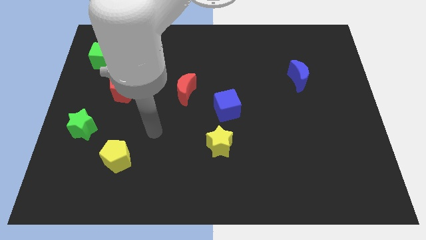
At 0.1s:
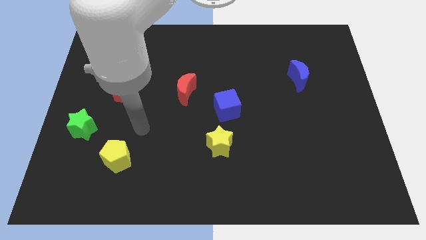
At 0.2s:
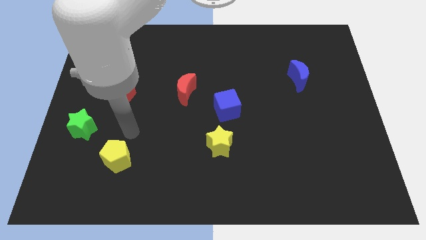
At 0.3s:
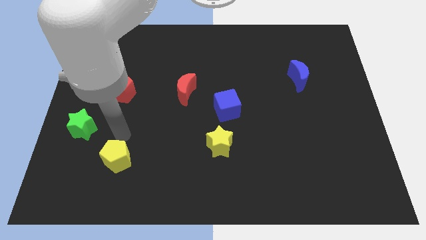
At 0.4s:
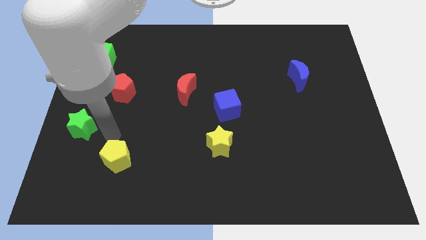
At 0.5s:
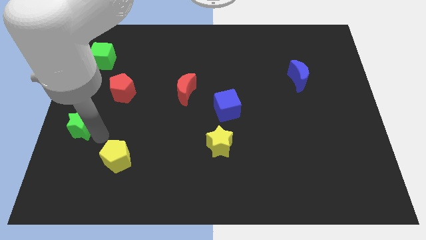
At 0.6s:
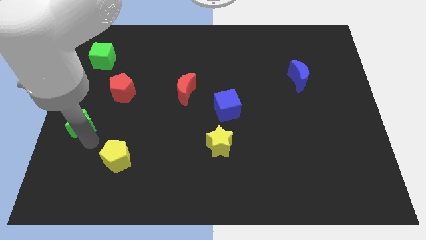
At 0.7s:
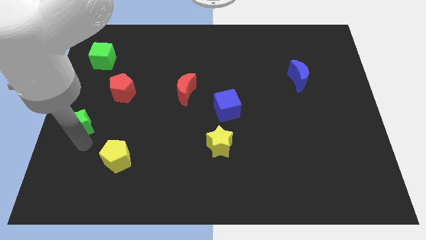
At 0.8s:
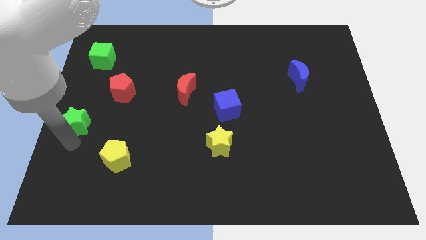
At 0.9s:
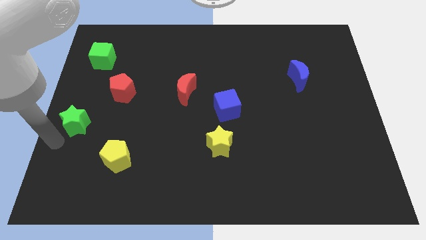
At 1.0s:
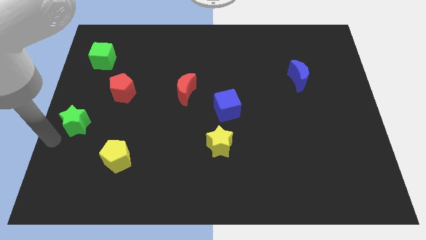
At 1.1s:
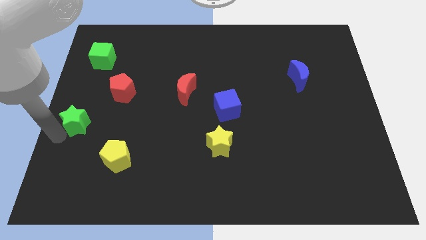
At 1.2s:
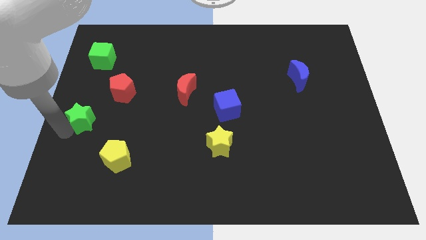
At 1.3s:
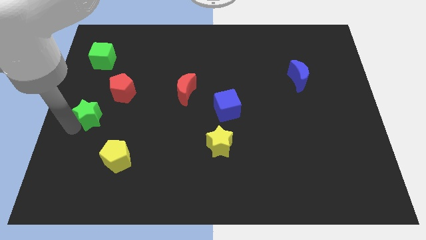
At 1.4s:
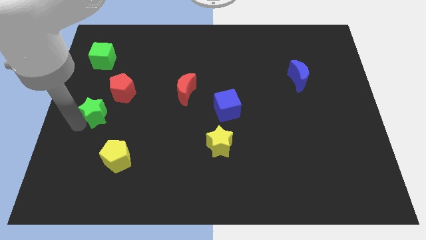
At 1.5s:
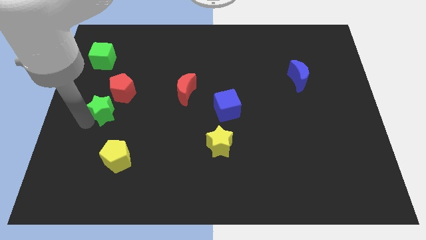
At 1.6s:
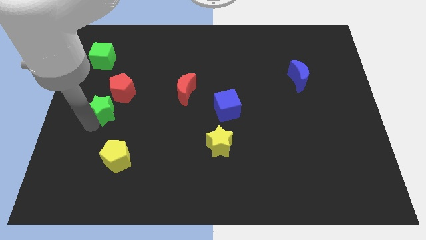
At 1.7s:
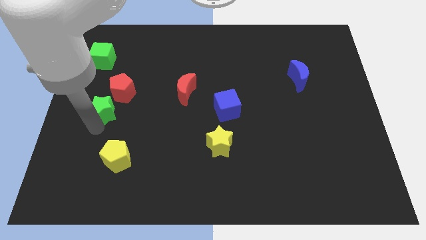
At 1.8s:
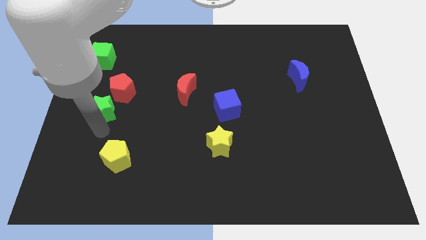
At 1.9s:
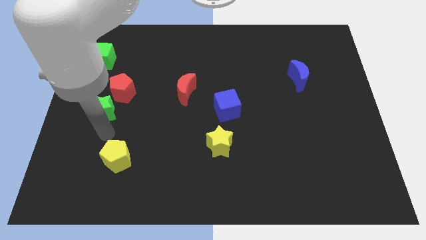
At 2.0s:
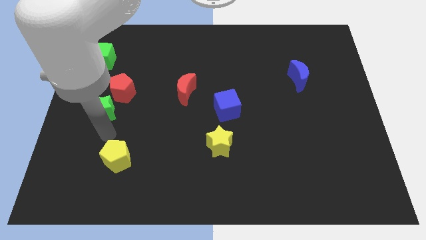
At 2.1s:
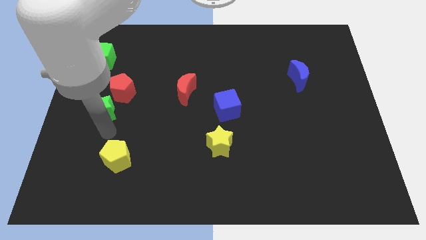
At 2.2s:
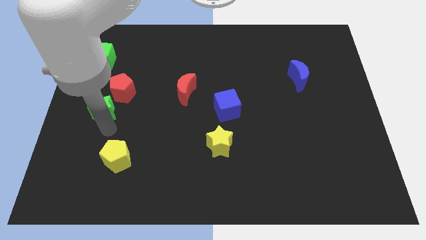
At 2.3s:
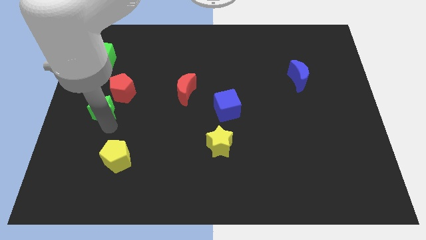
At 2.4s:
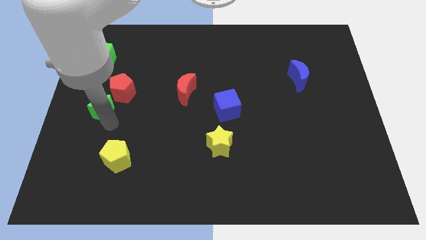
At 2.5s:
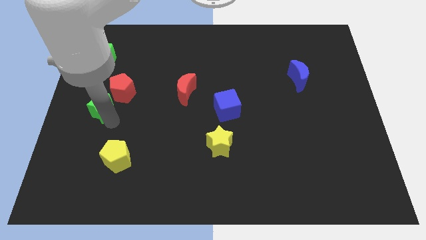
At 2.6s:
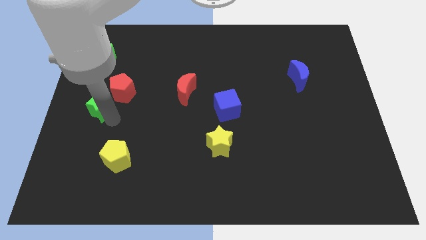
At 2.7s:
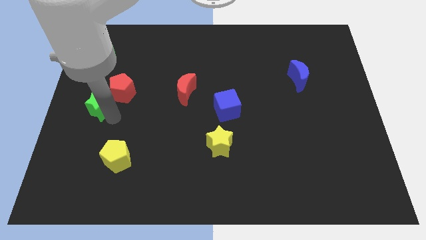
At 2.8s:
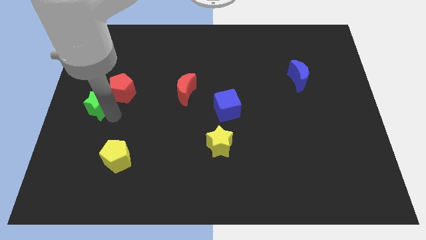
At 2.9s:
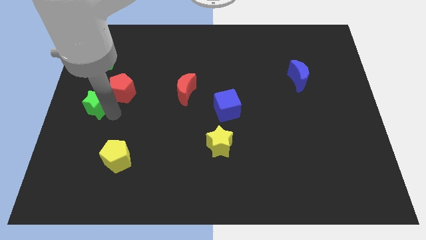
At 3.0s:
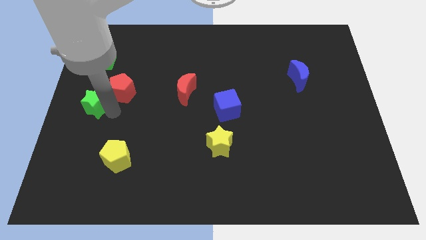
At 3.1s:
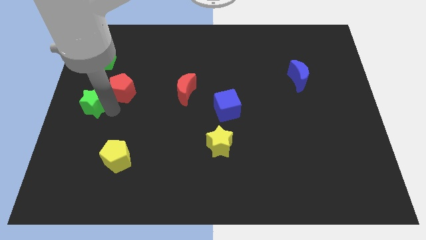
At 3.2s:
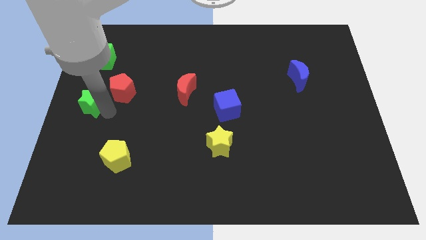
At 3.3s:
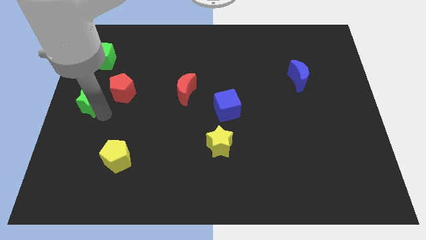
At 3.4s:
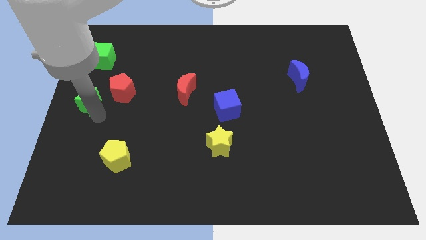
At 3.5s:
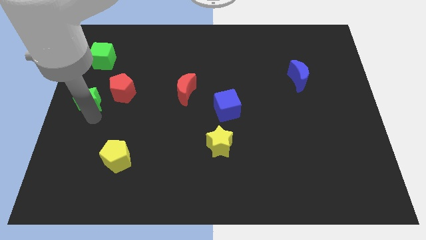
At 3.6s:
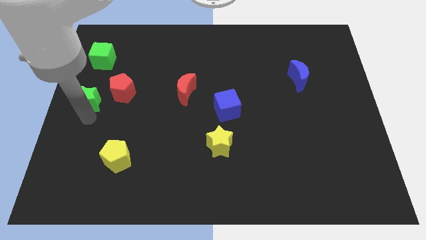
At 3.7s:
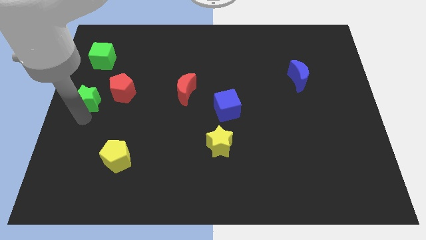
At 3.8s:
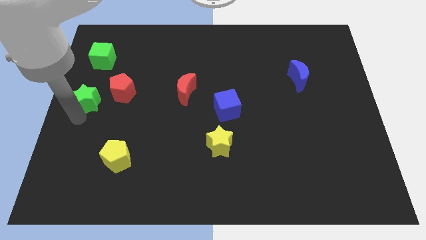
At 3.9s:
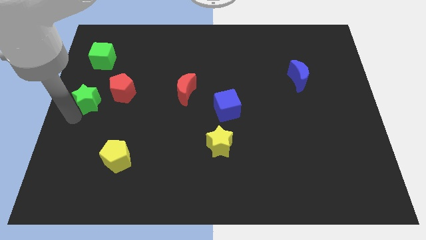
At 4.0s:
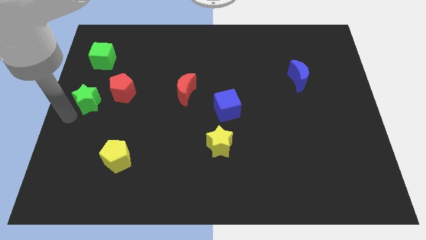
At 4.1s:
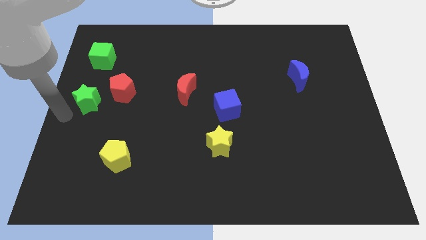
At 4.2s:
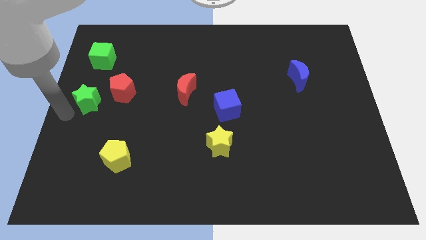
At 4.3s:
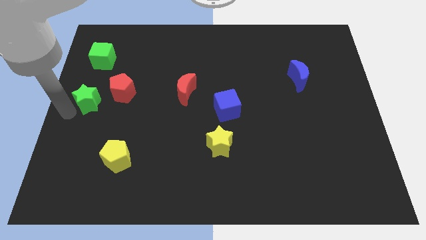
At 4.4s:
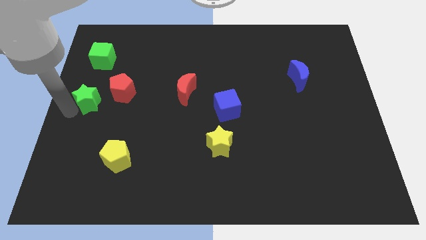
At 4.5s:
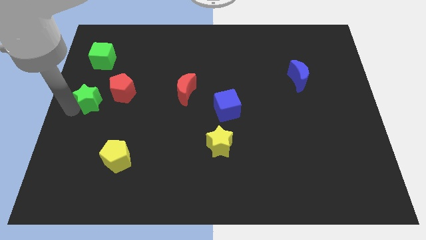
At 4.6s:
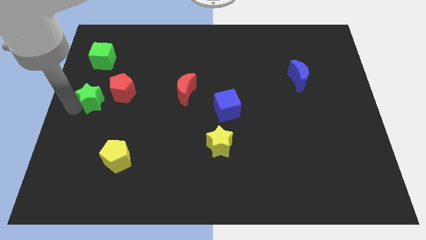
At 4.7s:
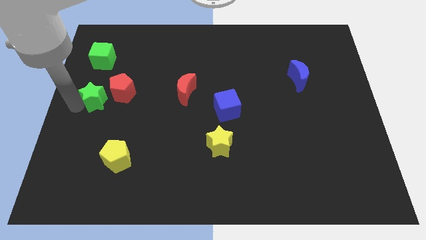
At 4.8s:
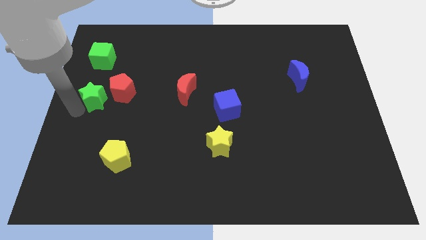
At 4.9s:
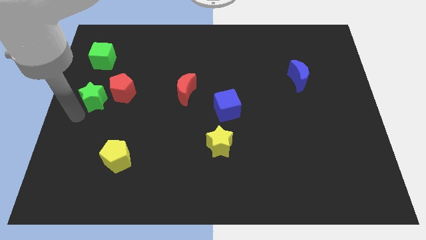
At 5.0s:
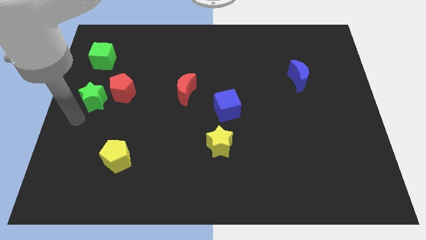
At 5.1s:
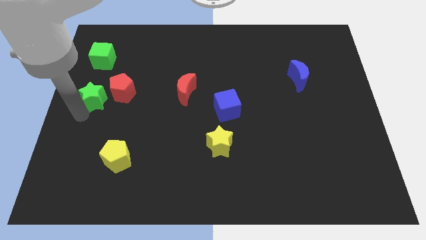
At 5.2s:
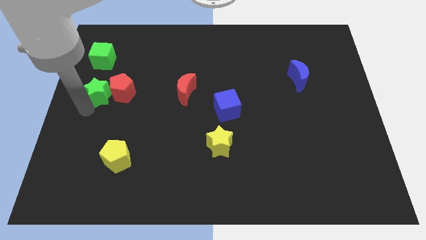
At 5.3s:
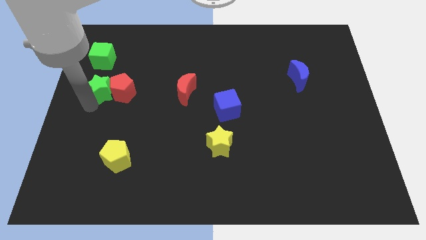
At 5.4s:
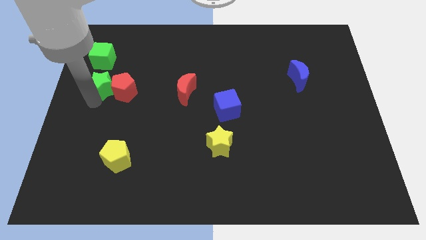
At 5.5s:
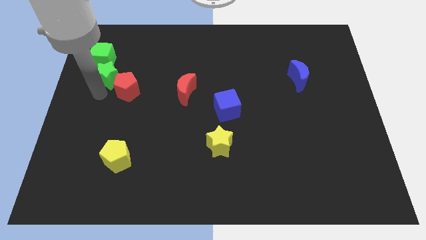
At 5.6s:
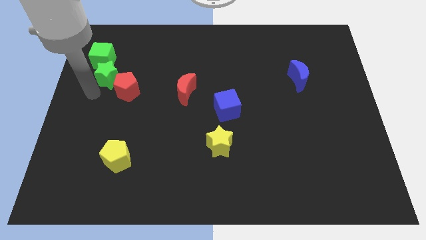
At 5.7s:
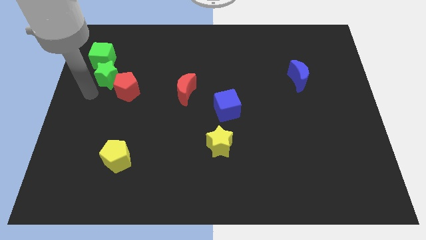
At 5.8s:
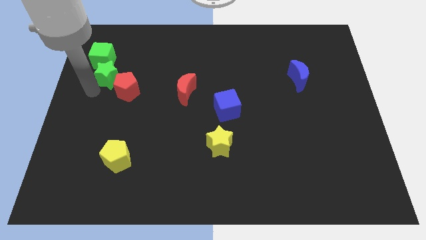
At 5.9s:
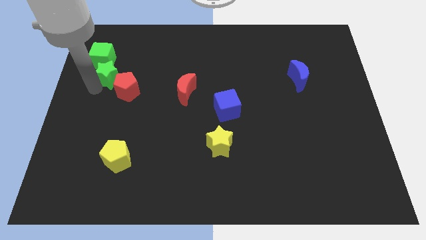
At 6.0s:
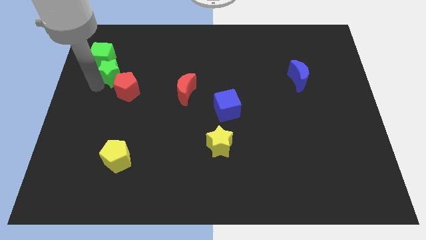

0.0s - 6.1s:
move the green star to the top of the red pentagon
